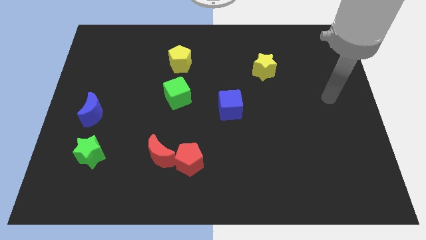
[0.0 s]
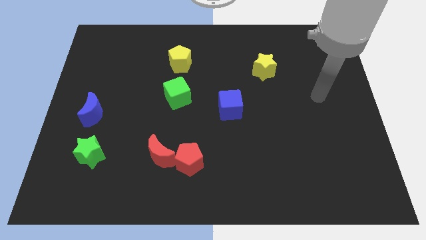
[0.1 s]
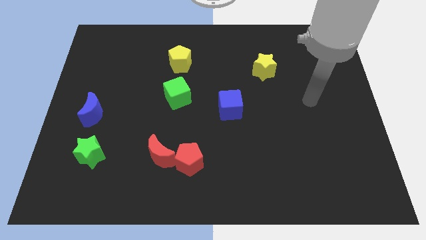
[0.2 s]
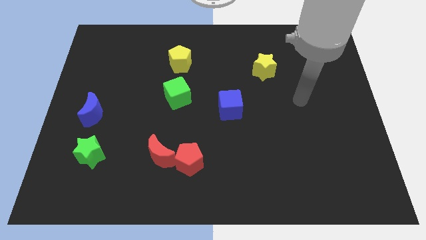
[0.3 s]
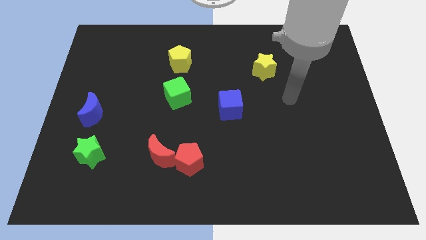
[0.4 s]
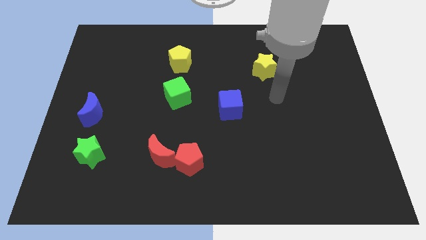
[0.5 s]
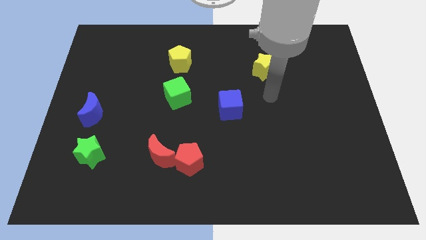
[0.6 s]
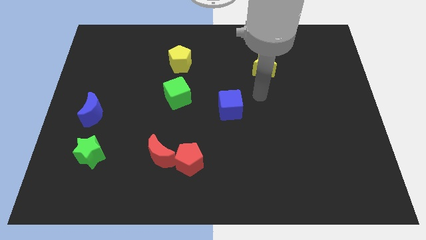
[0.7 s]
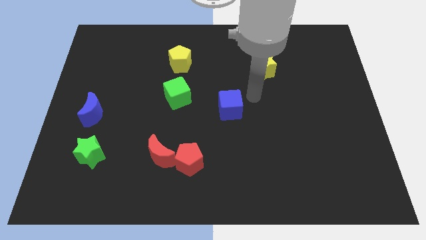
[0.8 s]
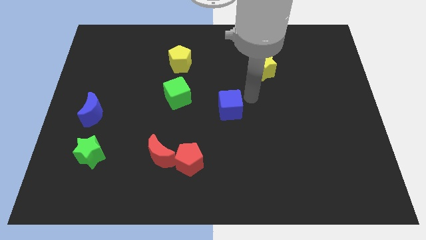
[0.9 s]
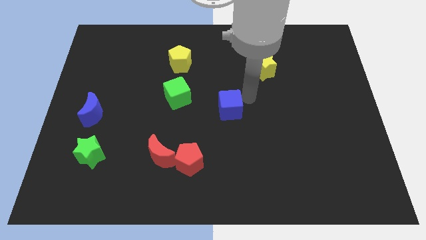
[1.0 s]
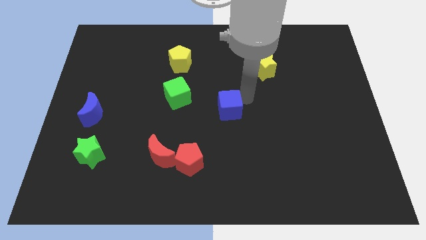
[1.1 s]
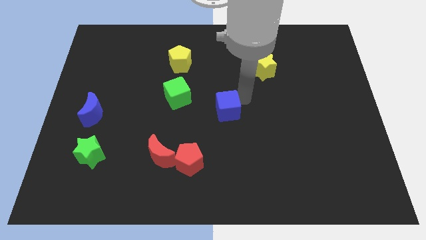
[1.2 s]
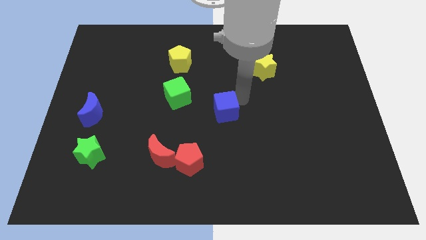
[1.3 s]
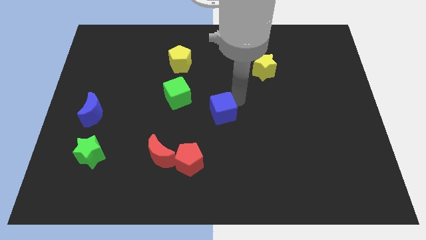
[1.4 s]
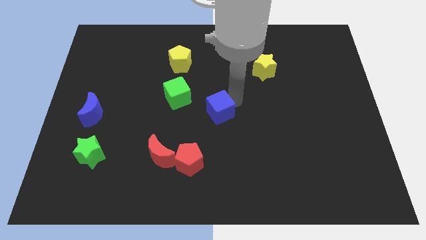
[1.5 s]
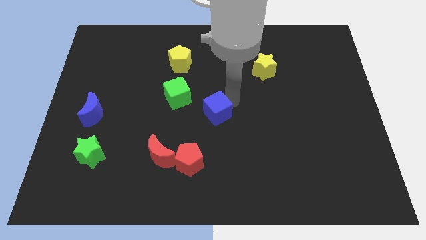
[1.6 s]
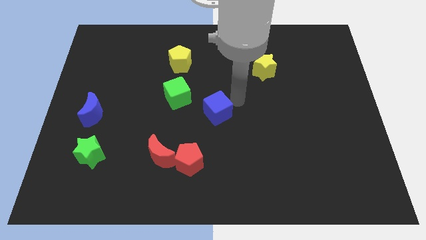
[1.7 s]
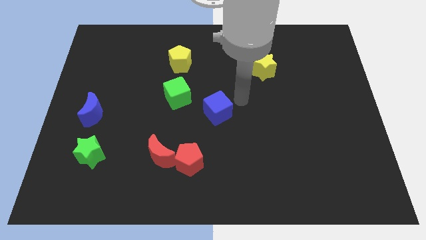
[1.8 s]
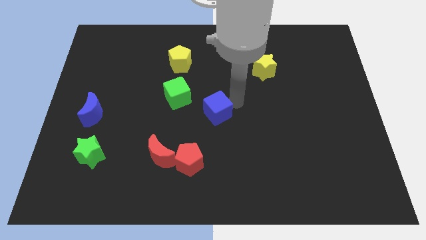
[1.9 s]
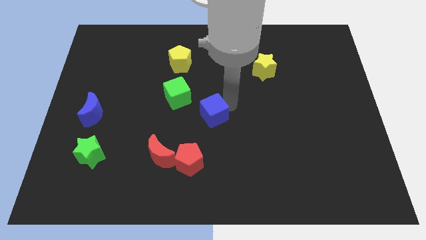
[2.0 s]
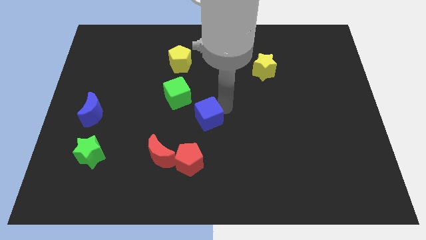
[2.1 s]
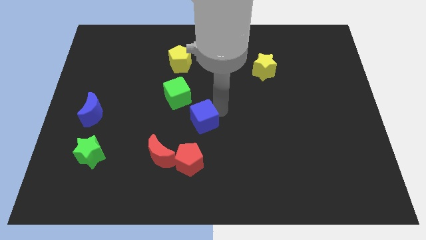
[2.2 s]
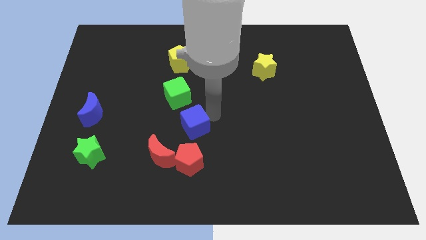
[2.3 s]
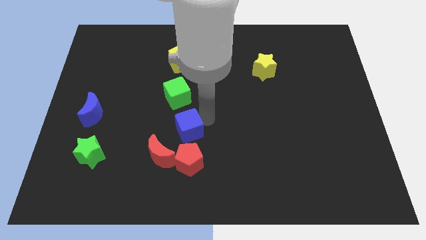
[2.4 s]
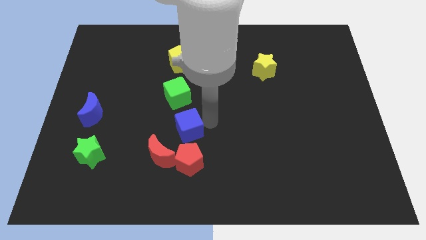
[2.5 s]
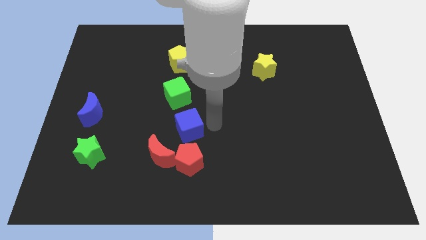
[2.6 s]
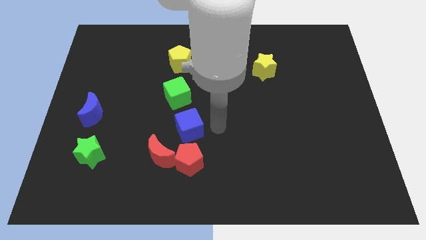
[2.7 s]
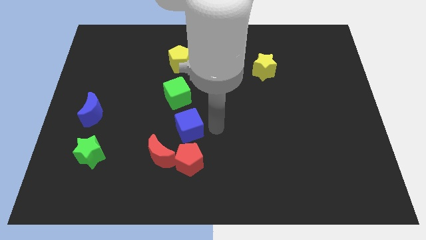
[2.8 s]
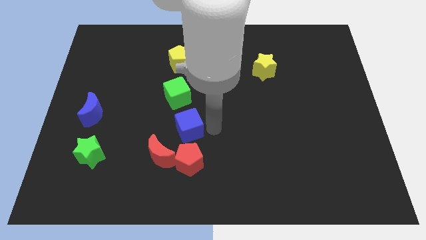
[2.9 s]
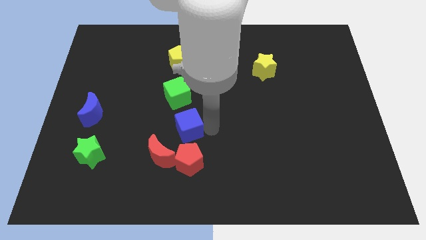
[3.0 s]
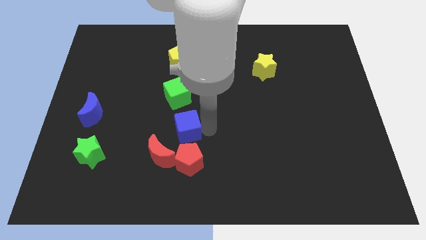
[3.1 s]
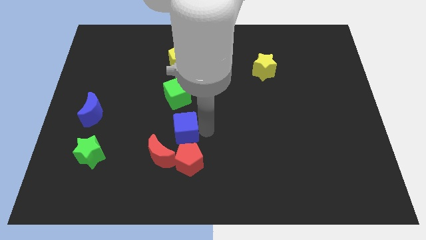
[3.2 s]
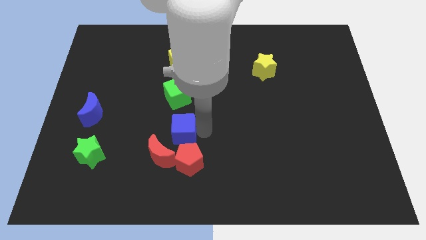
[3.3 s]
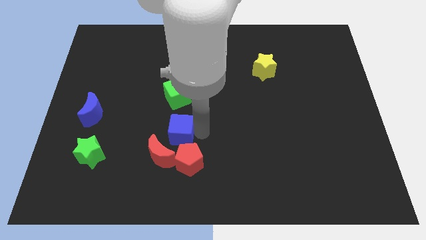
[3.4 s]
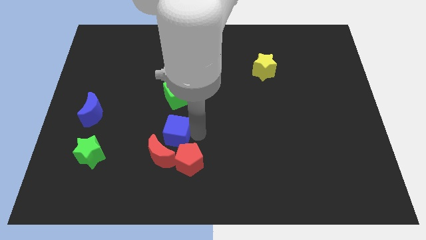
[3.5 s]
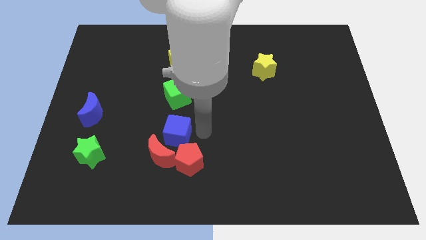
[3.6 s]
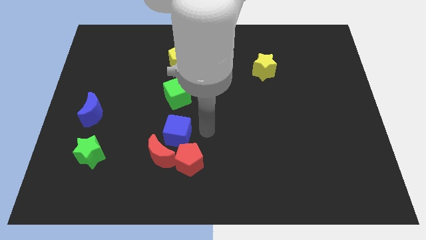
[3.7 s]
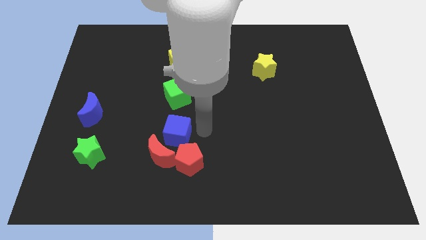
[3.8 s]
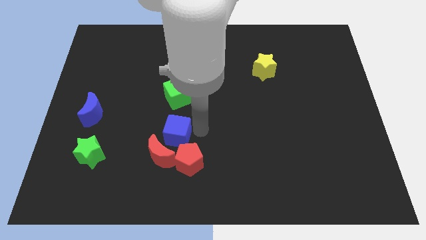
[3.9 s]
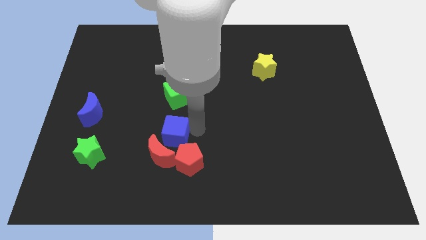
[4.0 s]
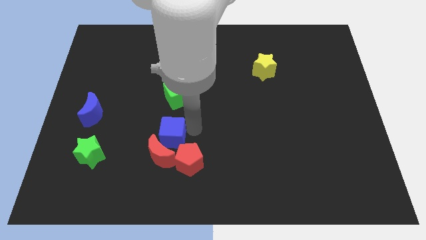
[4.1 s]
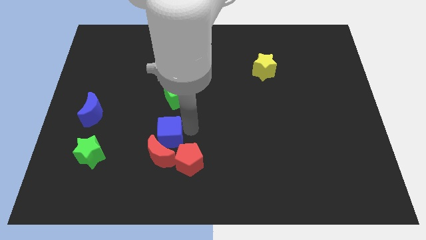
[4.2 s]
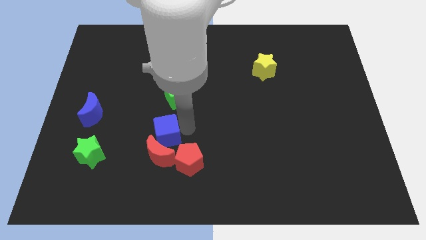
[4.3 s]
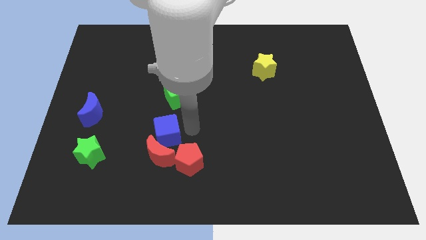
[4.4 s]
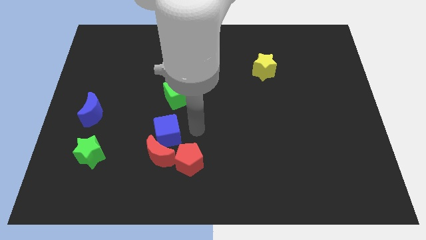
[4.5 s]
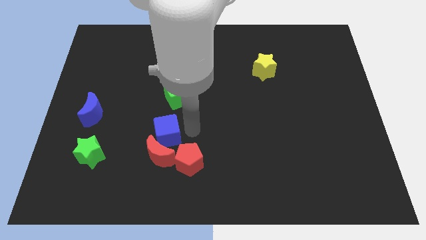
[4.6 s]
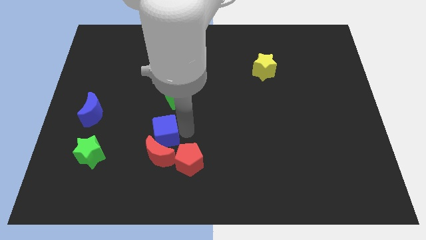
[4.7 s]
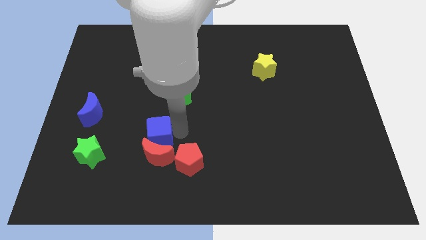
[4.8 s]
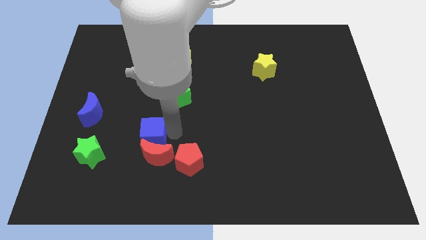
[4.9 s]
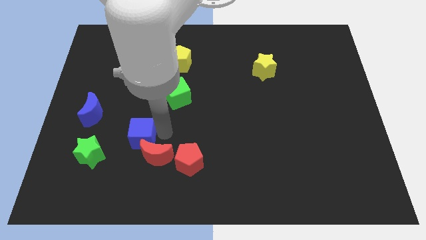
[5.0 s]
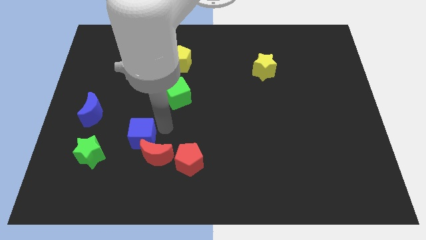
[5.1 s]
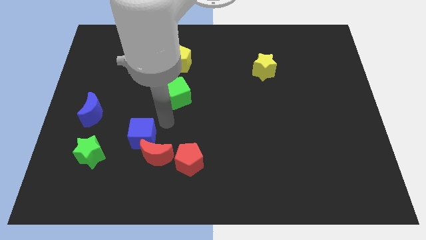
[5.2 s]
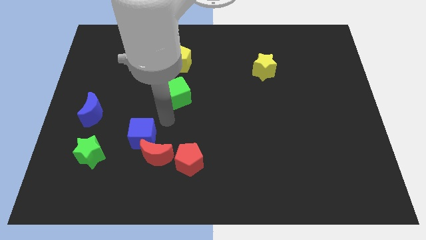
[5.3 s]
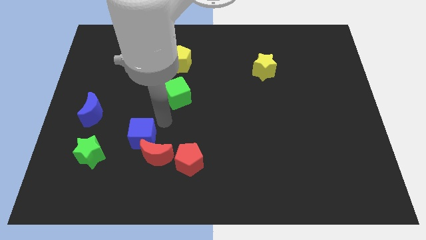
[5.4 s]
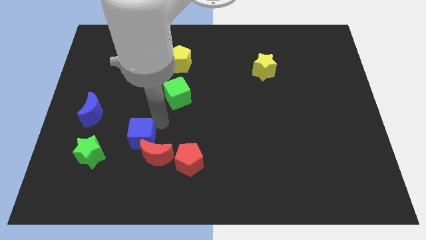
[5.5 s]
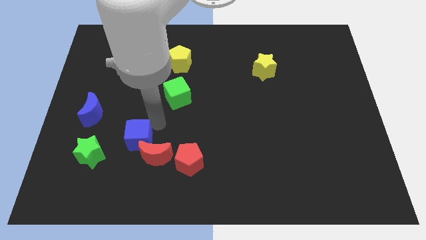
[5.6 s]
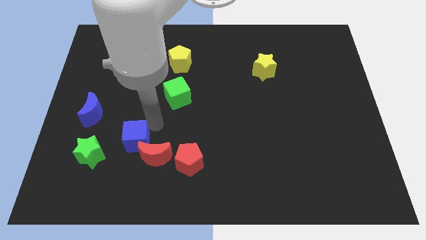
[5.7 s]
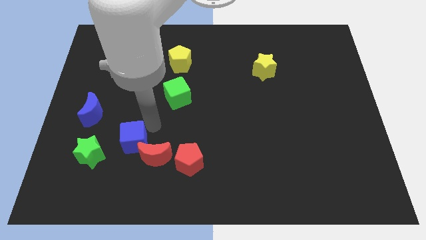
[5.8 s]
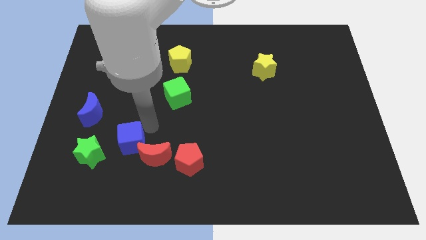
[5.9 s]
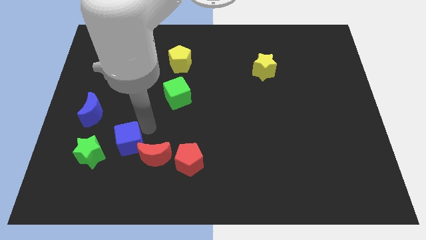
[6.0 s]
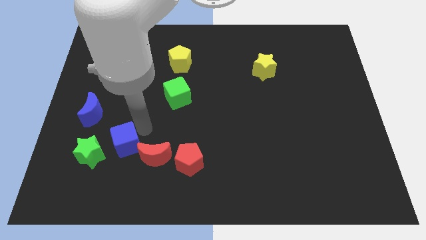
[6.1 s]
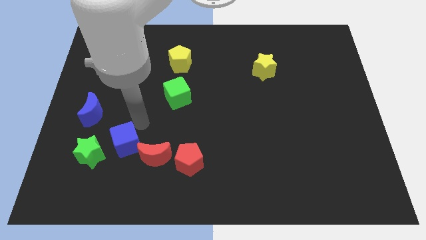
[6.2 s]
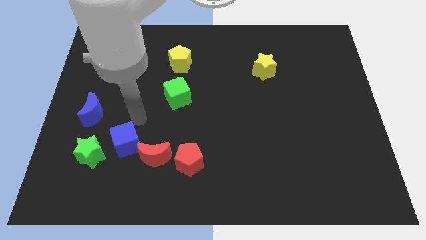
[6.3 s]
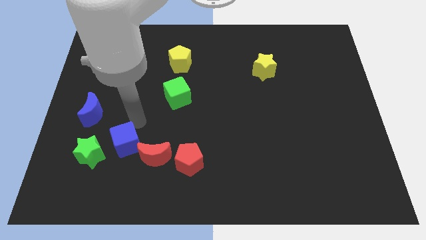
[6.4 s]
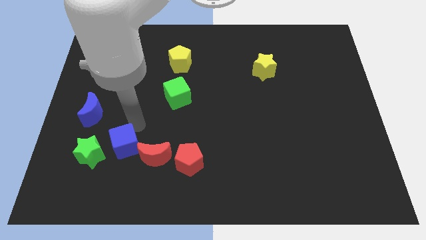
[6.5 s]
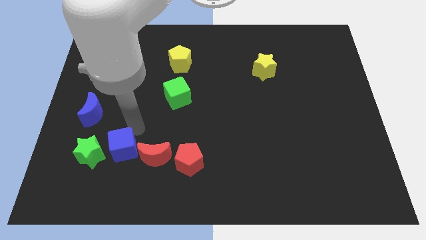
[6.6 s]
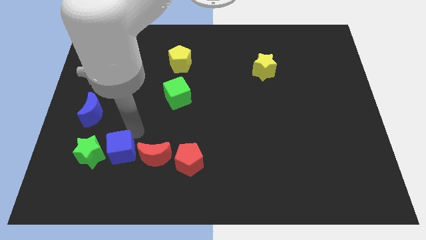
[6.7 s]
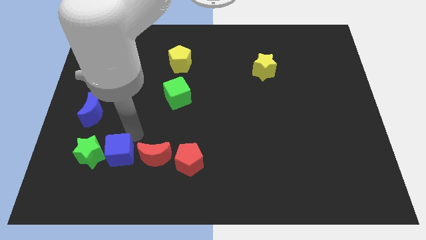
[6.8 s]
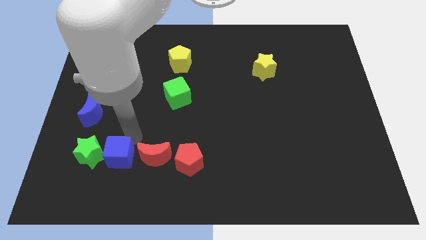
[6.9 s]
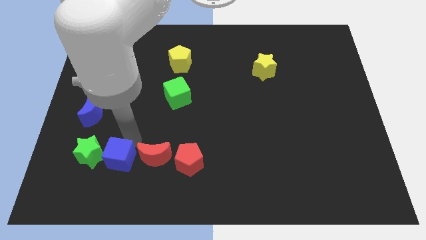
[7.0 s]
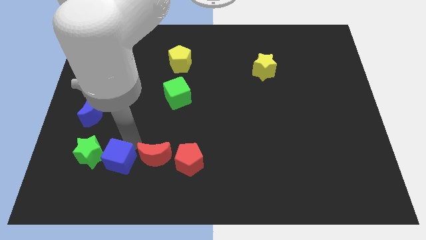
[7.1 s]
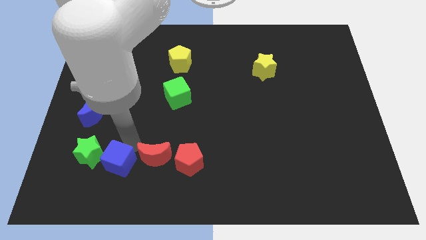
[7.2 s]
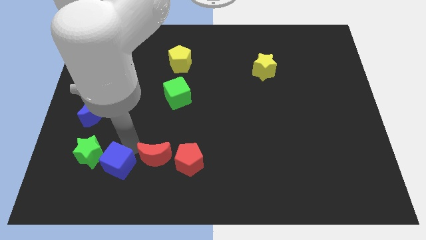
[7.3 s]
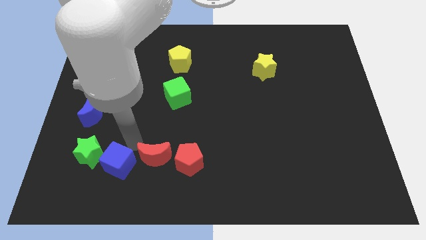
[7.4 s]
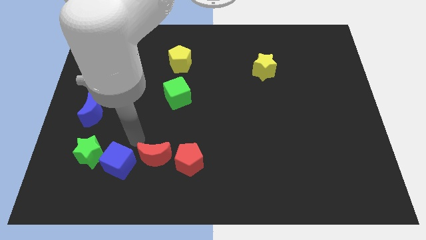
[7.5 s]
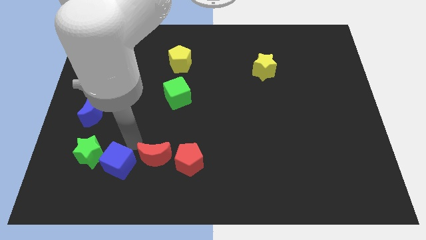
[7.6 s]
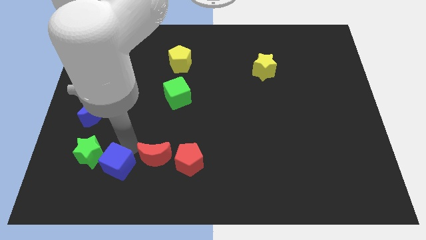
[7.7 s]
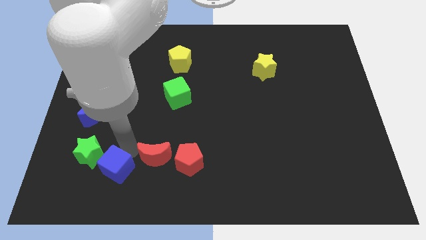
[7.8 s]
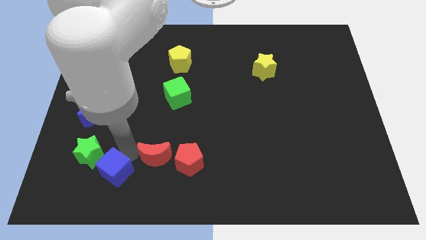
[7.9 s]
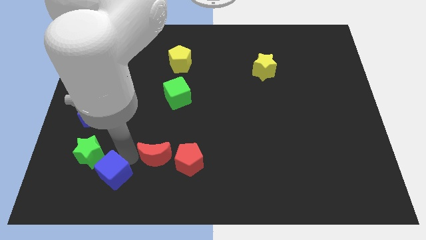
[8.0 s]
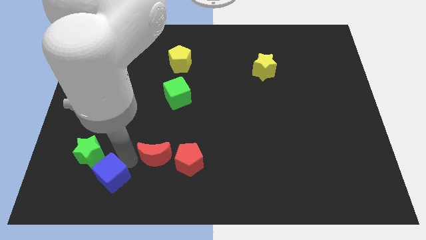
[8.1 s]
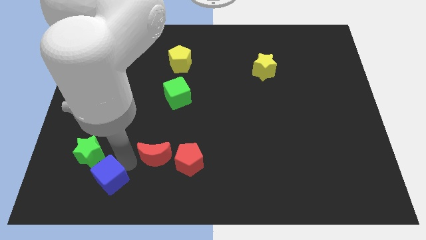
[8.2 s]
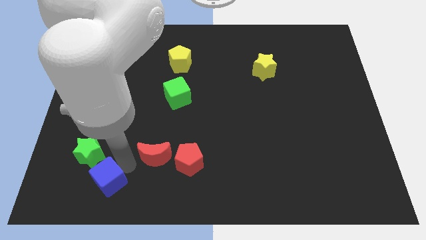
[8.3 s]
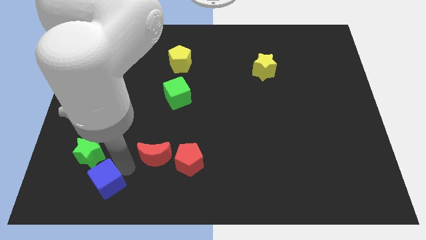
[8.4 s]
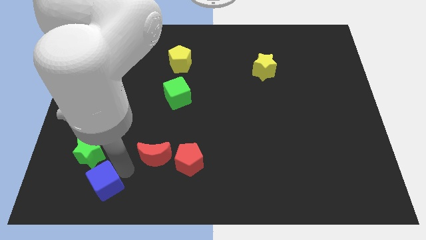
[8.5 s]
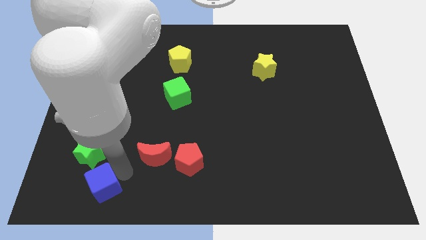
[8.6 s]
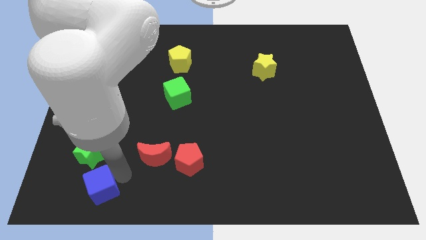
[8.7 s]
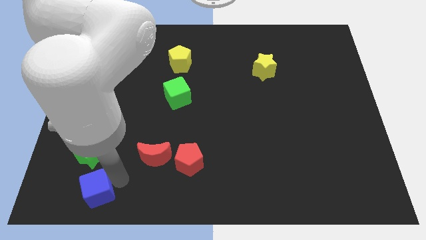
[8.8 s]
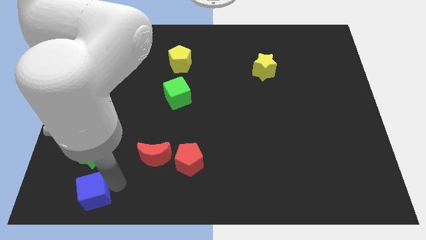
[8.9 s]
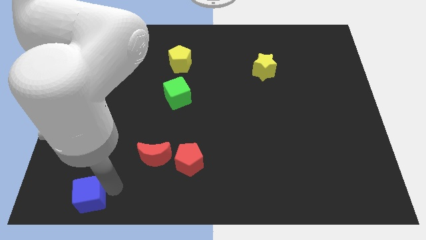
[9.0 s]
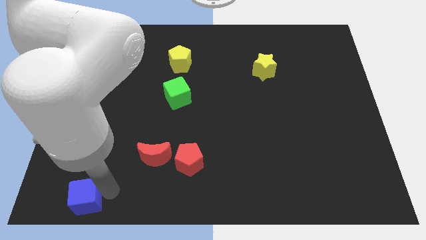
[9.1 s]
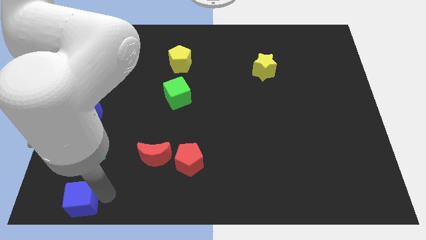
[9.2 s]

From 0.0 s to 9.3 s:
push the blue cube to the bottom left
